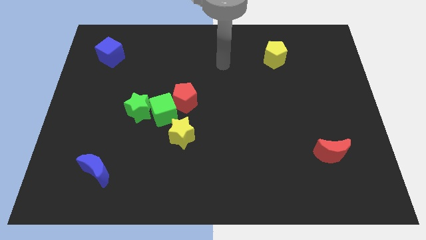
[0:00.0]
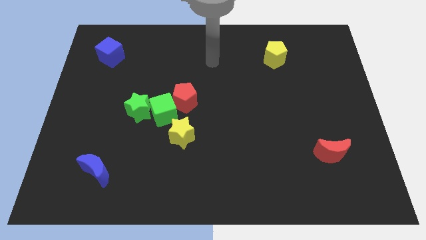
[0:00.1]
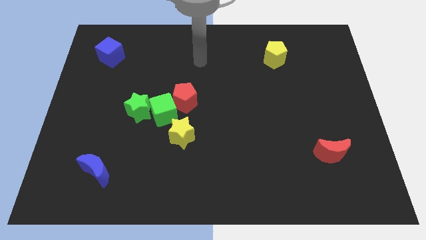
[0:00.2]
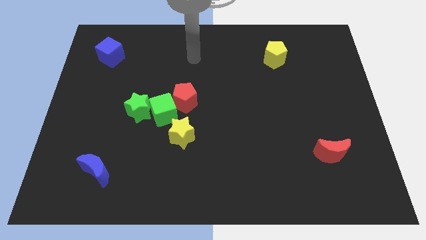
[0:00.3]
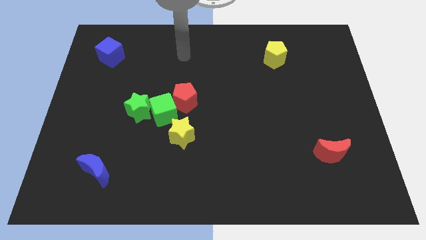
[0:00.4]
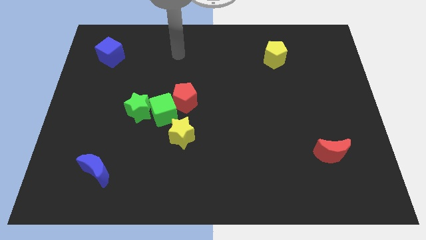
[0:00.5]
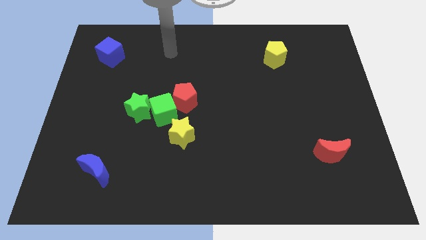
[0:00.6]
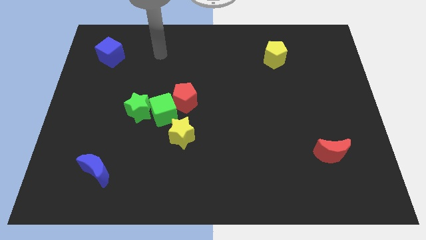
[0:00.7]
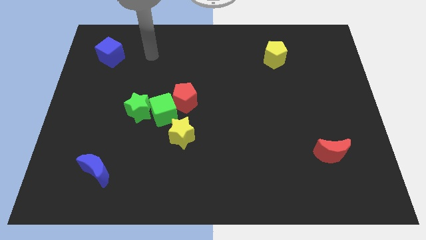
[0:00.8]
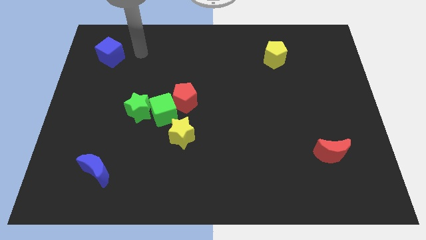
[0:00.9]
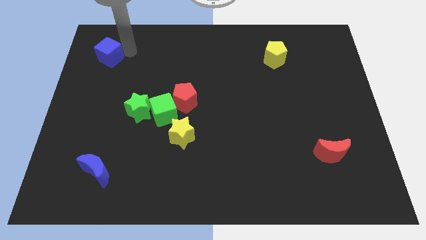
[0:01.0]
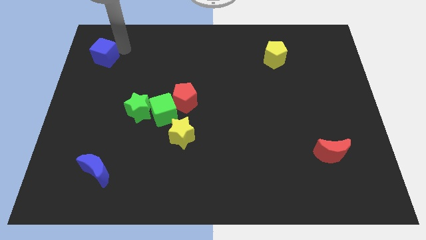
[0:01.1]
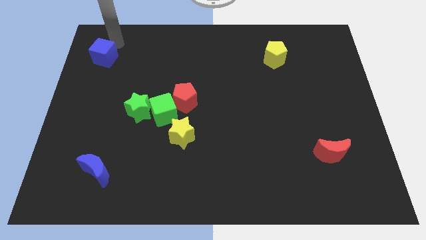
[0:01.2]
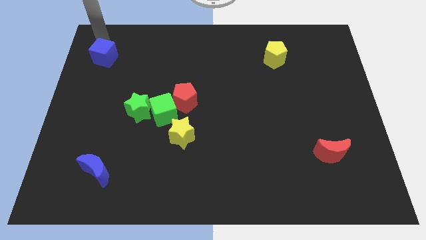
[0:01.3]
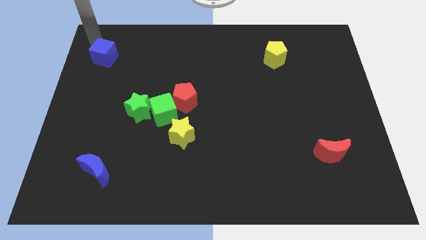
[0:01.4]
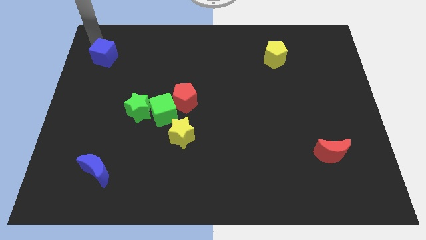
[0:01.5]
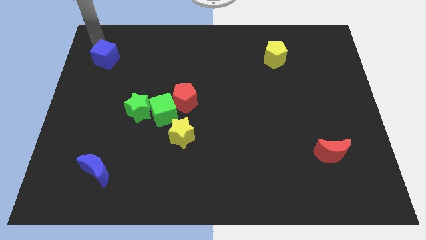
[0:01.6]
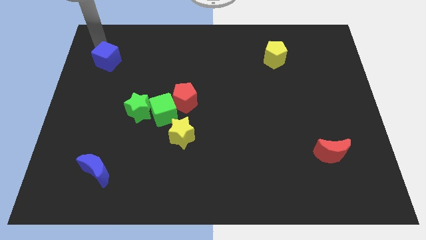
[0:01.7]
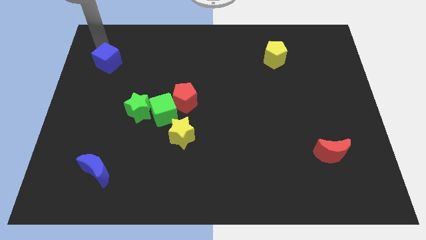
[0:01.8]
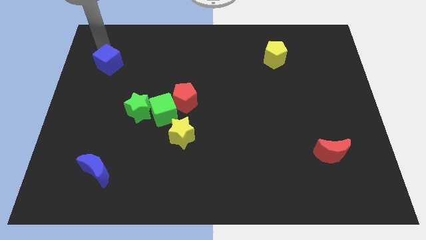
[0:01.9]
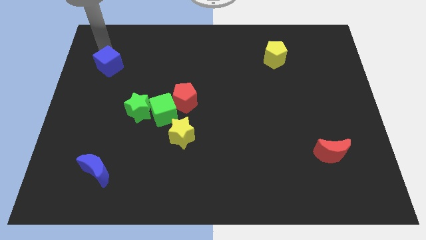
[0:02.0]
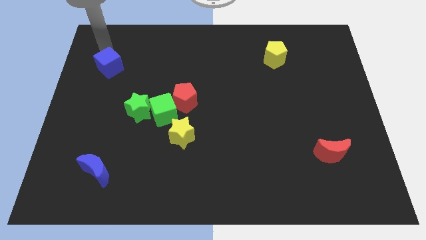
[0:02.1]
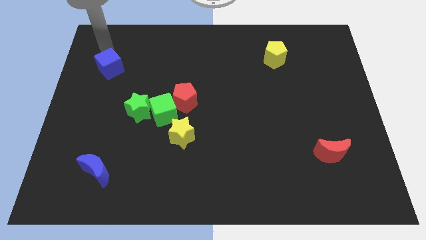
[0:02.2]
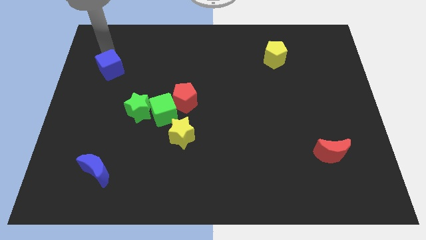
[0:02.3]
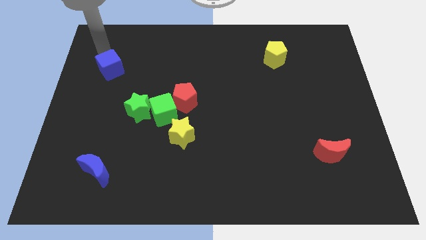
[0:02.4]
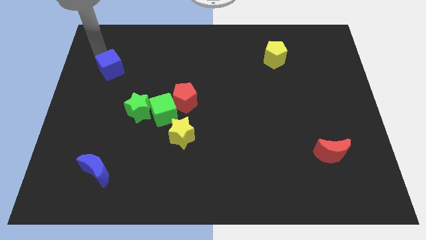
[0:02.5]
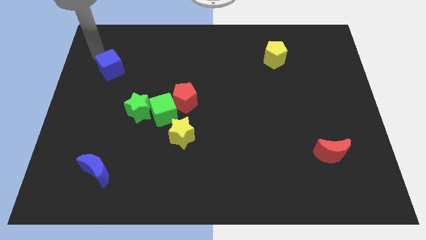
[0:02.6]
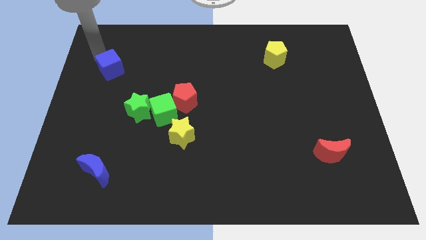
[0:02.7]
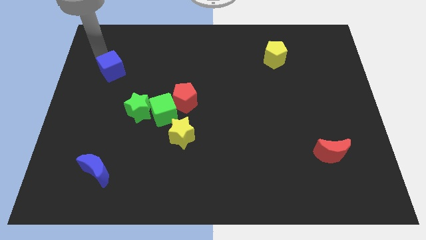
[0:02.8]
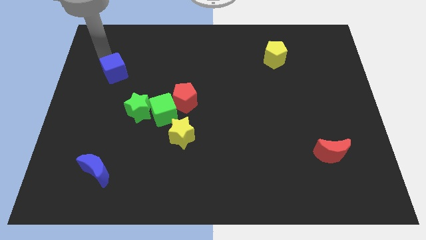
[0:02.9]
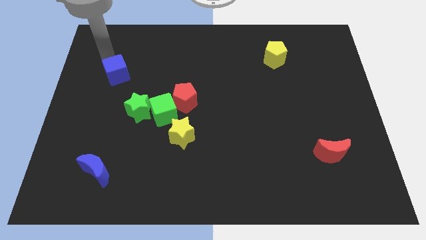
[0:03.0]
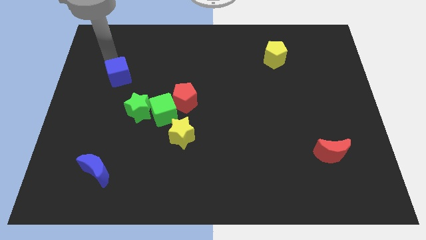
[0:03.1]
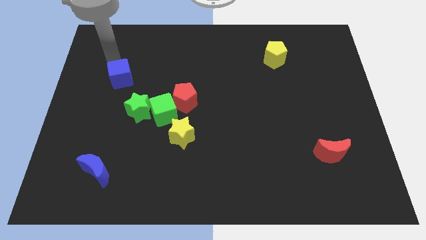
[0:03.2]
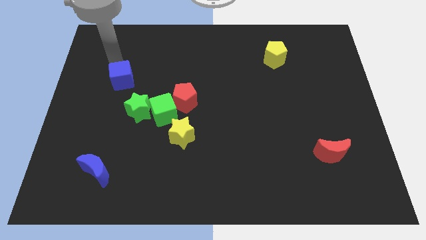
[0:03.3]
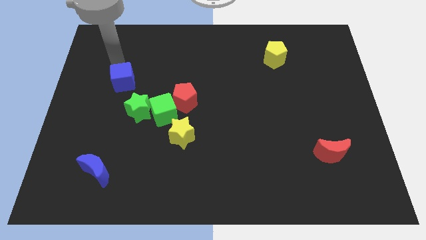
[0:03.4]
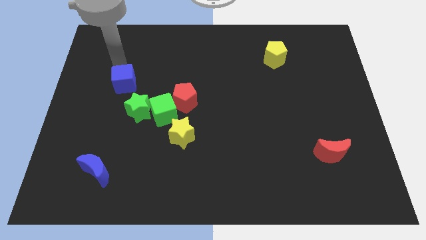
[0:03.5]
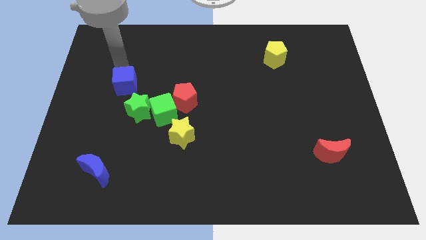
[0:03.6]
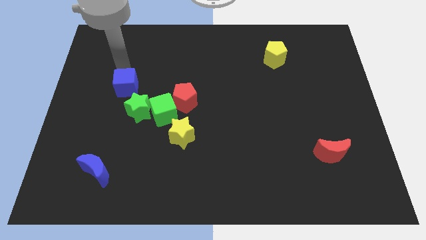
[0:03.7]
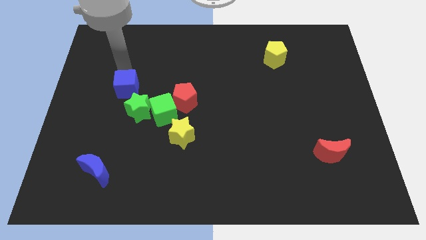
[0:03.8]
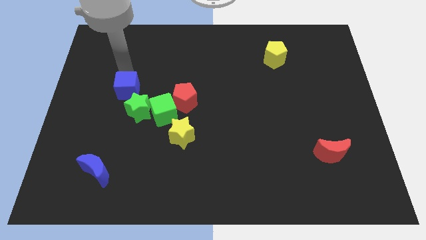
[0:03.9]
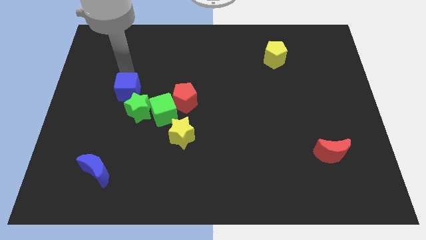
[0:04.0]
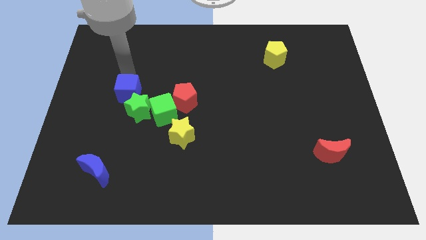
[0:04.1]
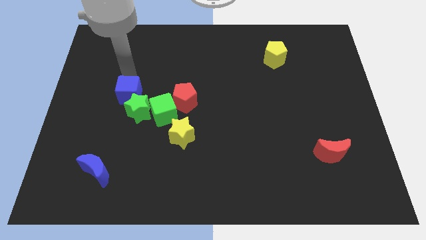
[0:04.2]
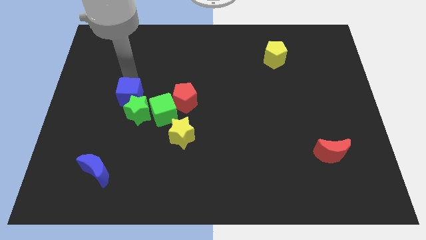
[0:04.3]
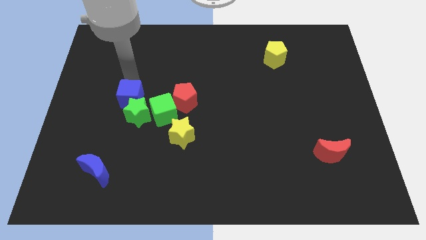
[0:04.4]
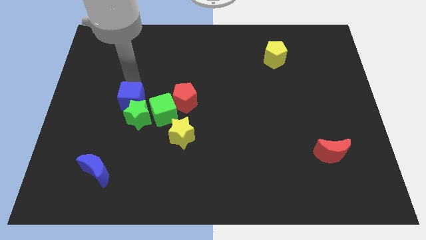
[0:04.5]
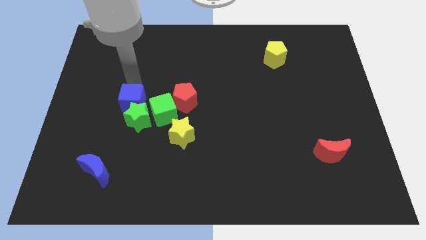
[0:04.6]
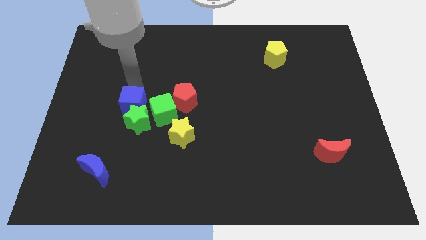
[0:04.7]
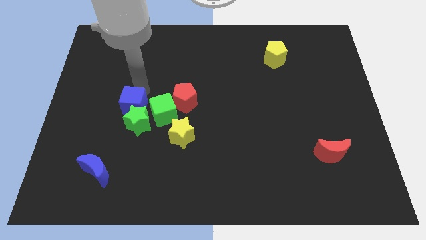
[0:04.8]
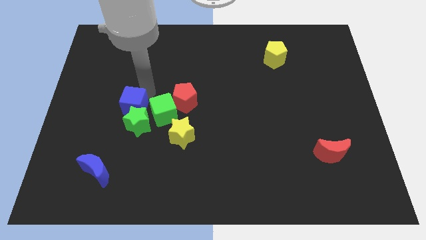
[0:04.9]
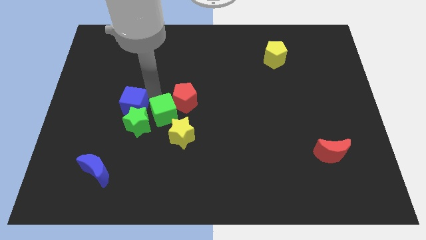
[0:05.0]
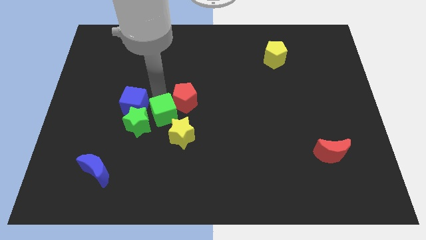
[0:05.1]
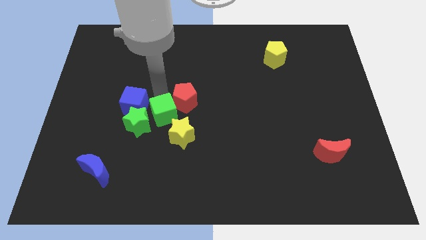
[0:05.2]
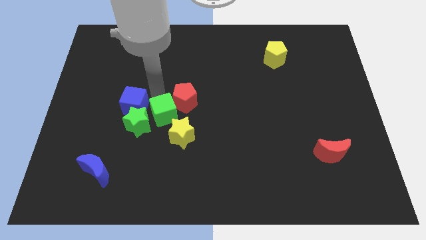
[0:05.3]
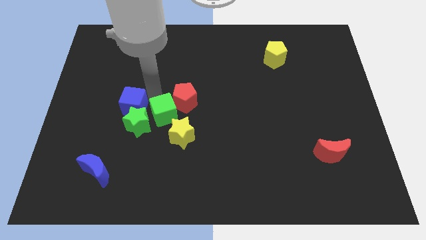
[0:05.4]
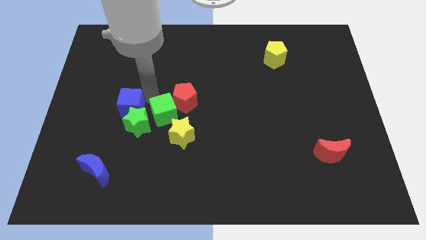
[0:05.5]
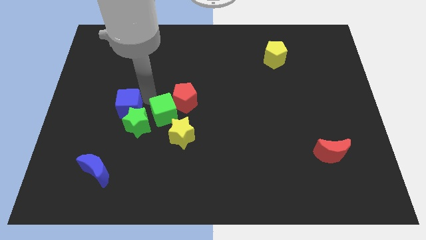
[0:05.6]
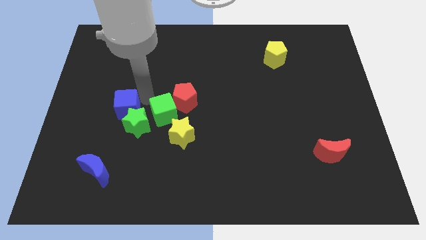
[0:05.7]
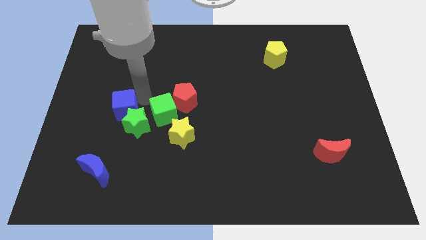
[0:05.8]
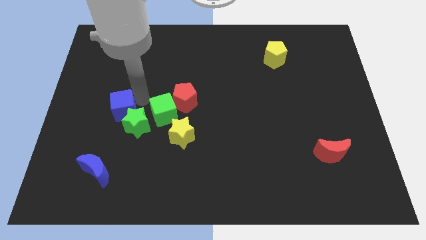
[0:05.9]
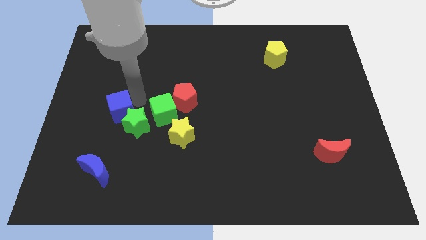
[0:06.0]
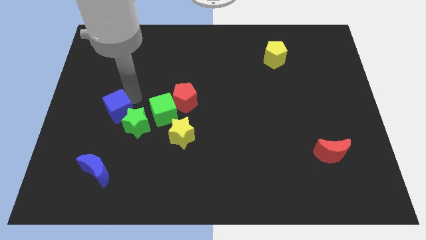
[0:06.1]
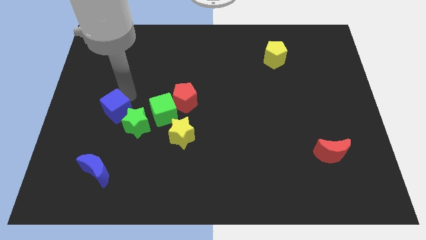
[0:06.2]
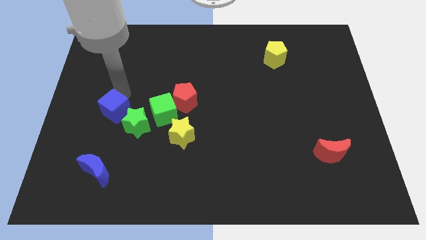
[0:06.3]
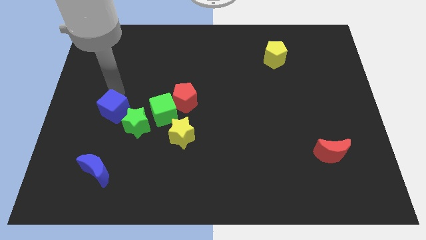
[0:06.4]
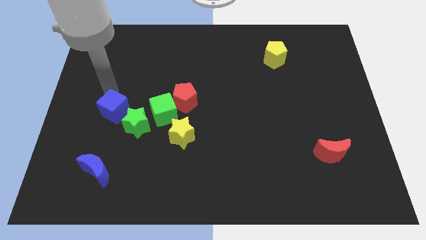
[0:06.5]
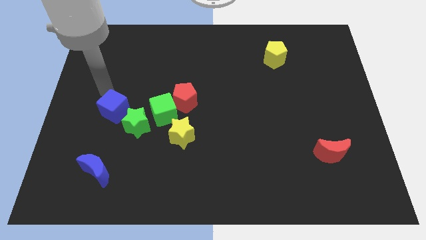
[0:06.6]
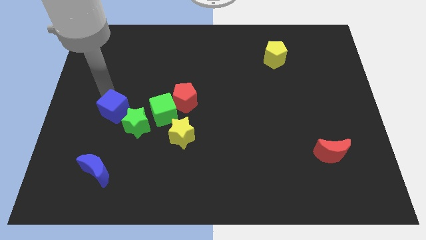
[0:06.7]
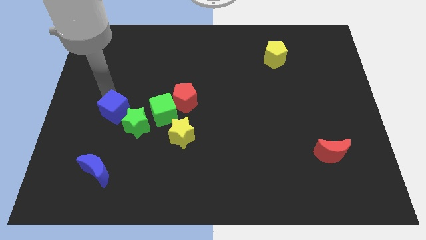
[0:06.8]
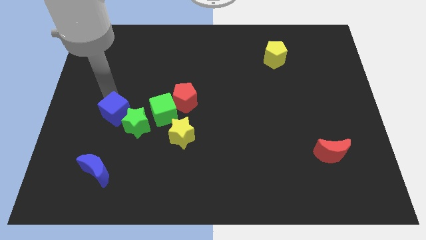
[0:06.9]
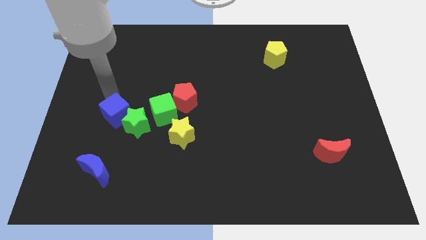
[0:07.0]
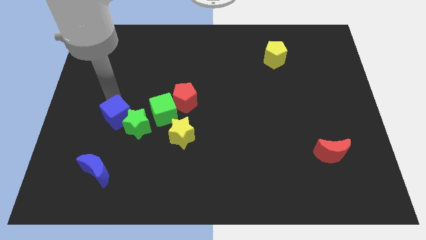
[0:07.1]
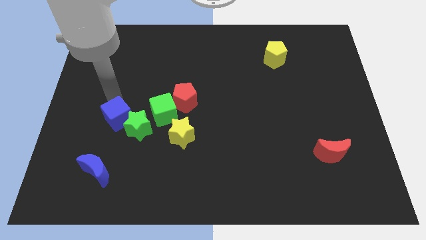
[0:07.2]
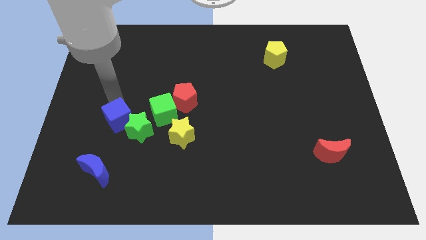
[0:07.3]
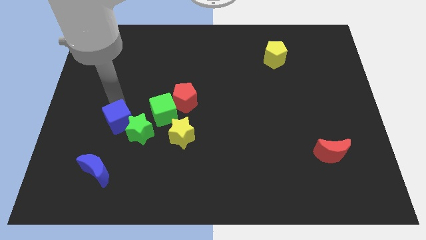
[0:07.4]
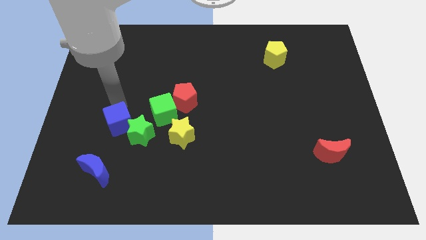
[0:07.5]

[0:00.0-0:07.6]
push the blue cube to the left of the yellow star
